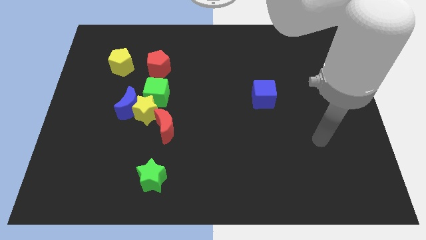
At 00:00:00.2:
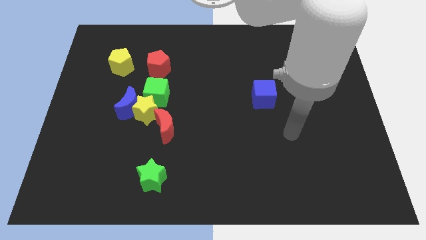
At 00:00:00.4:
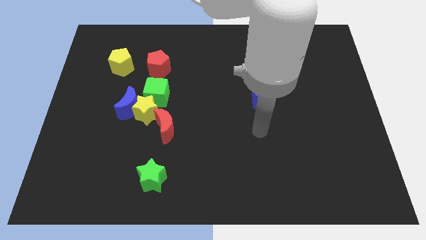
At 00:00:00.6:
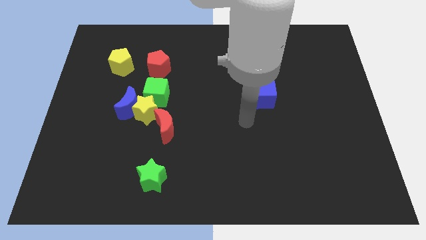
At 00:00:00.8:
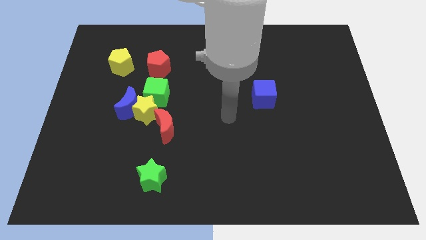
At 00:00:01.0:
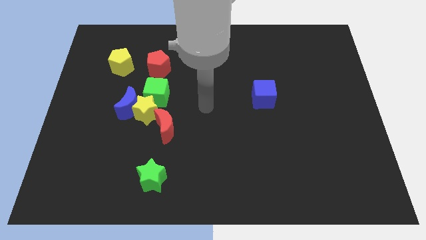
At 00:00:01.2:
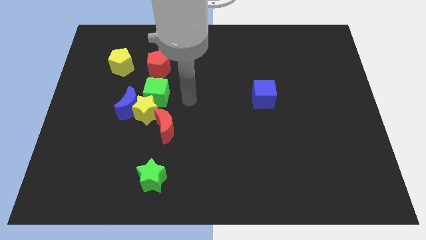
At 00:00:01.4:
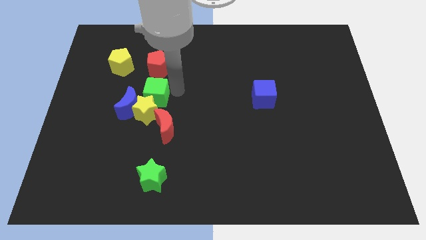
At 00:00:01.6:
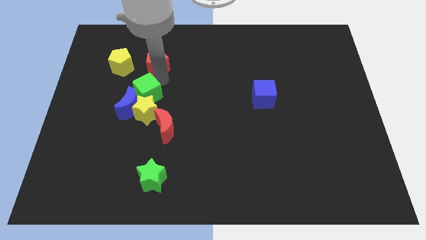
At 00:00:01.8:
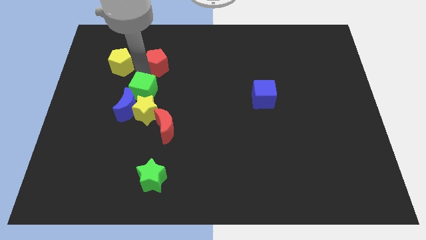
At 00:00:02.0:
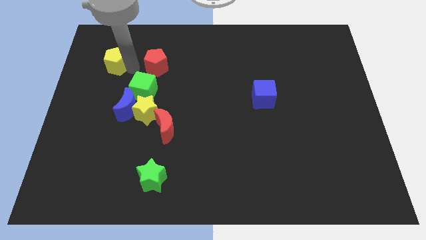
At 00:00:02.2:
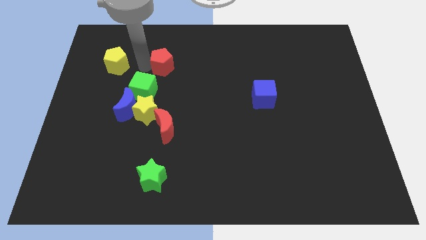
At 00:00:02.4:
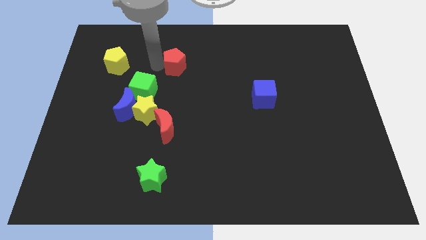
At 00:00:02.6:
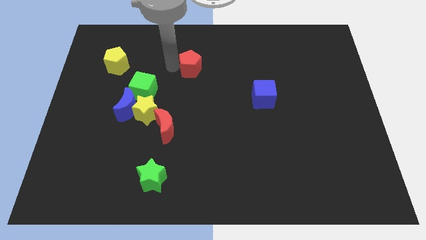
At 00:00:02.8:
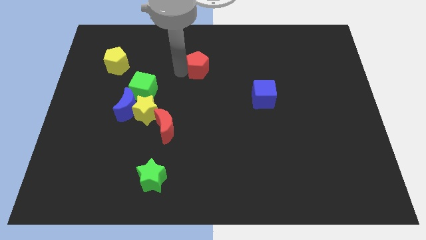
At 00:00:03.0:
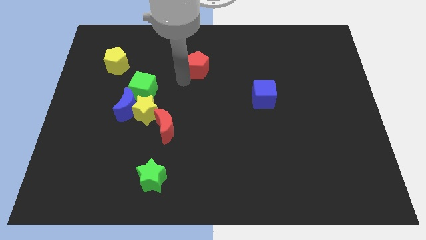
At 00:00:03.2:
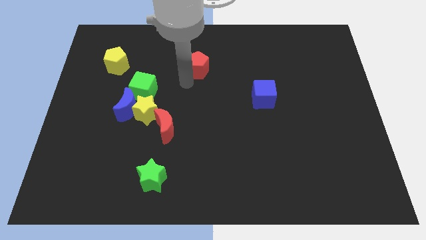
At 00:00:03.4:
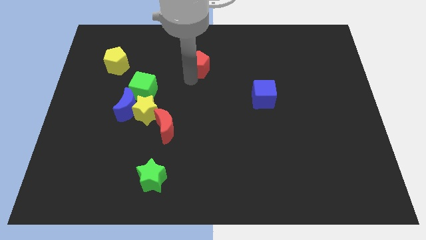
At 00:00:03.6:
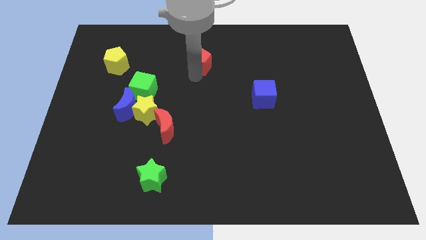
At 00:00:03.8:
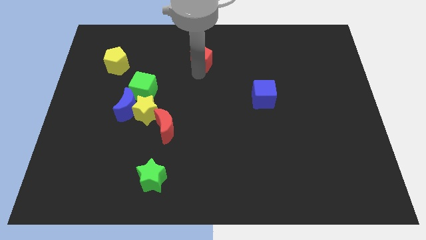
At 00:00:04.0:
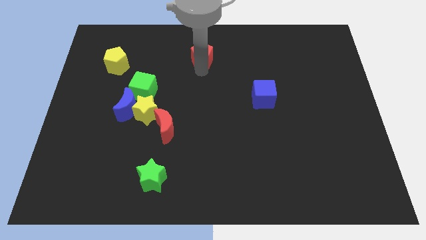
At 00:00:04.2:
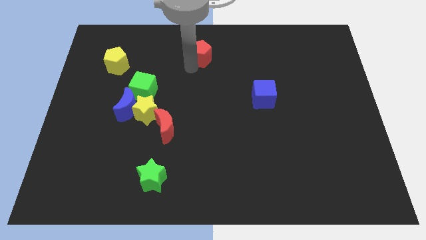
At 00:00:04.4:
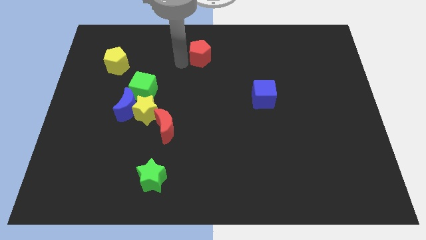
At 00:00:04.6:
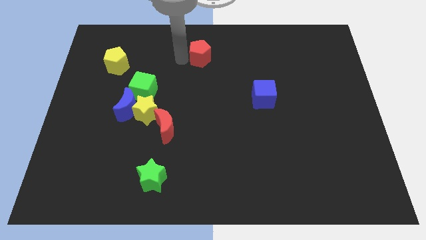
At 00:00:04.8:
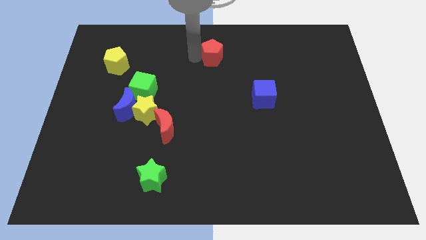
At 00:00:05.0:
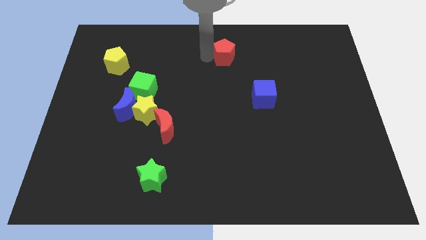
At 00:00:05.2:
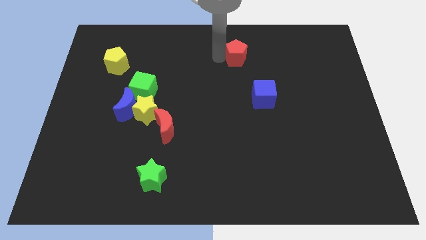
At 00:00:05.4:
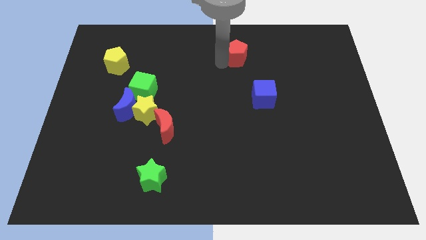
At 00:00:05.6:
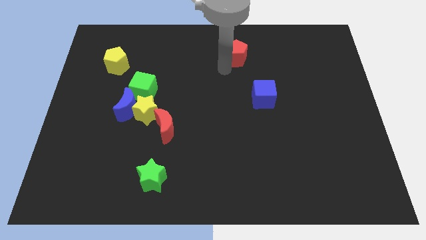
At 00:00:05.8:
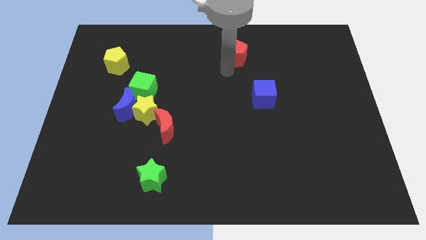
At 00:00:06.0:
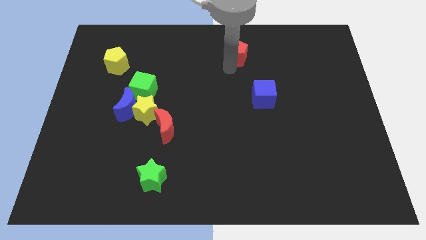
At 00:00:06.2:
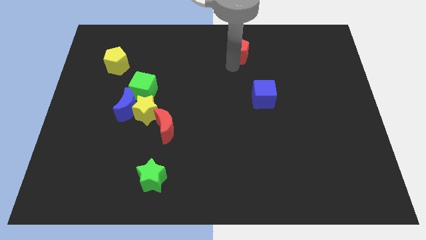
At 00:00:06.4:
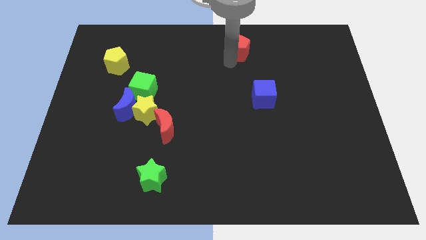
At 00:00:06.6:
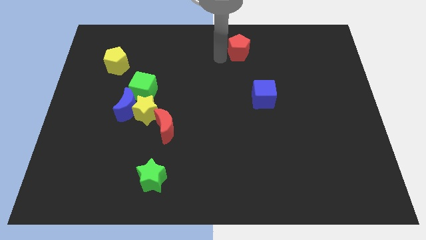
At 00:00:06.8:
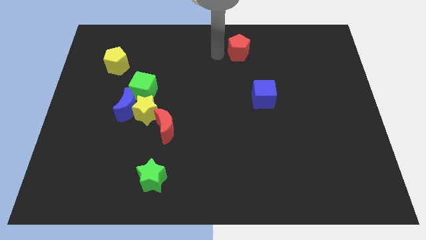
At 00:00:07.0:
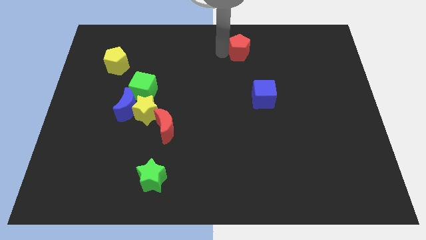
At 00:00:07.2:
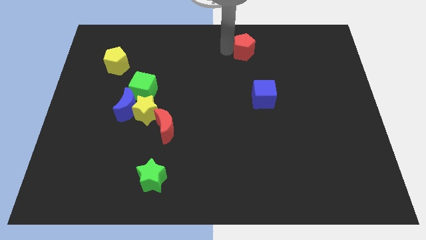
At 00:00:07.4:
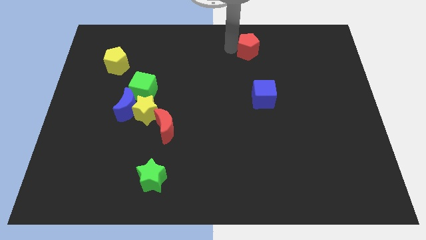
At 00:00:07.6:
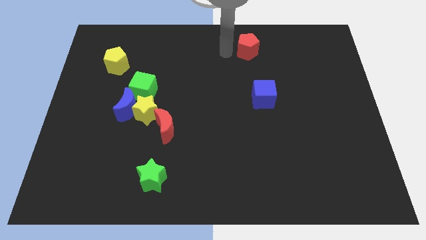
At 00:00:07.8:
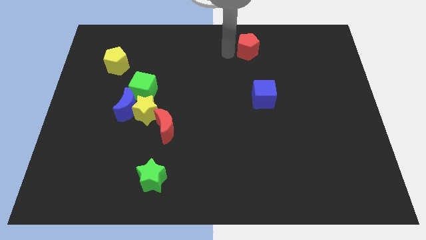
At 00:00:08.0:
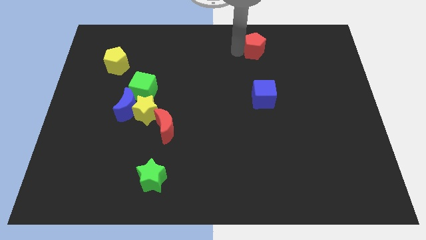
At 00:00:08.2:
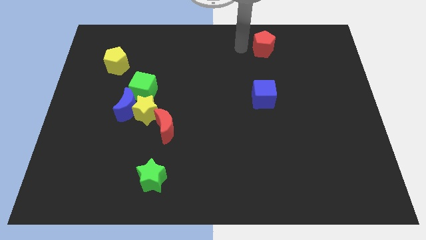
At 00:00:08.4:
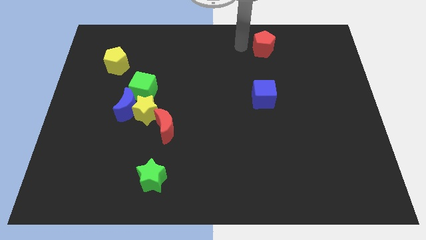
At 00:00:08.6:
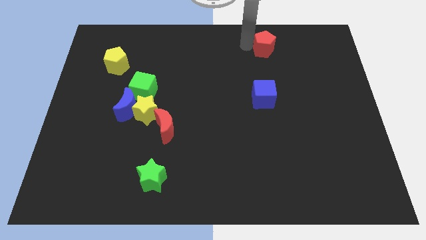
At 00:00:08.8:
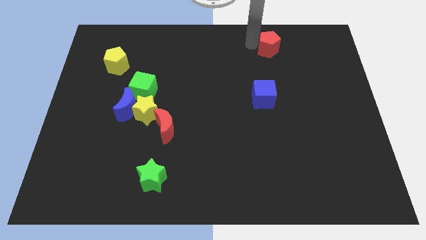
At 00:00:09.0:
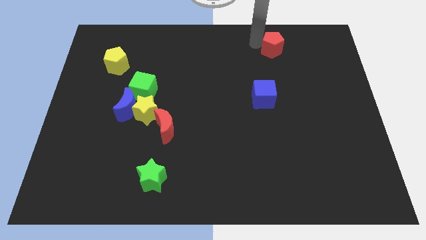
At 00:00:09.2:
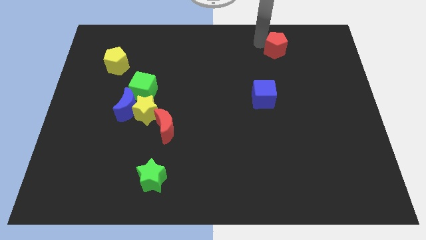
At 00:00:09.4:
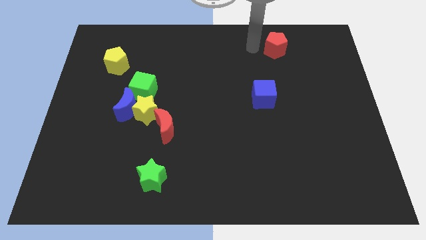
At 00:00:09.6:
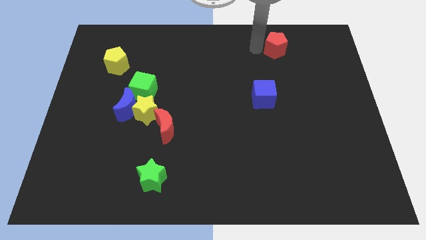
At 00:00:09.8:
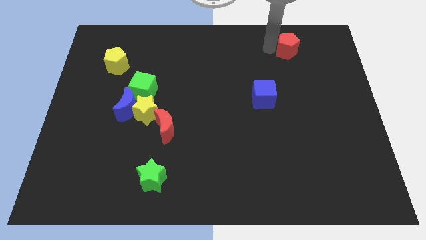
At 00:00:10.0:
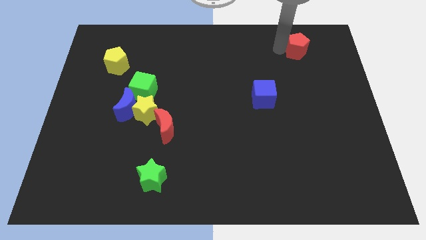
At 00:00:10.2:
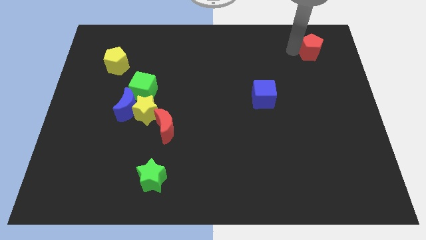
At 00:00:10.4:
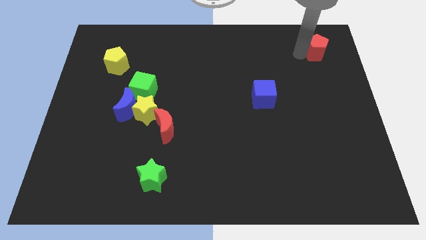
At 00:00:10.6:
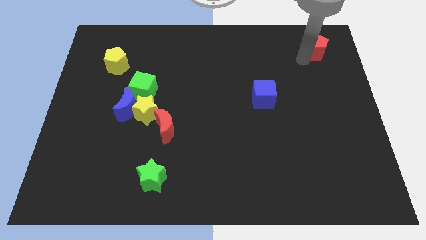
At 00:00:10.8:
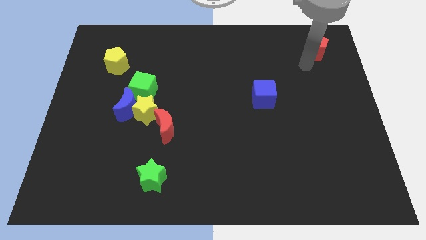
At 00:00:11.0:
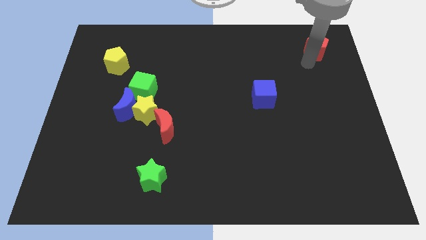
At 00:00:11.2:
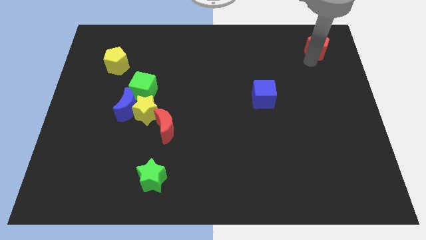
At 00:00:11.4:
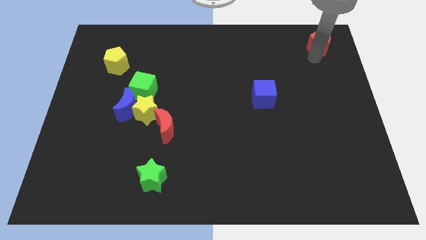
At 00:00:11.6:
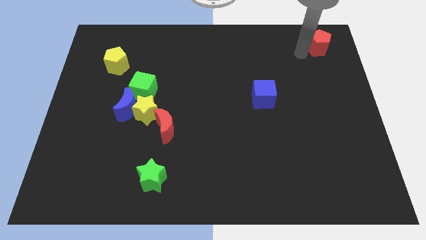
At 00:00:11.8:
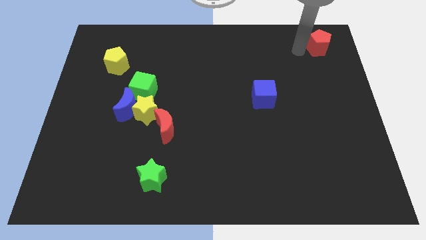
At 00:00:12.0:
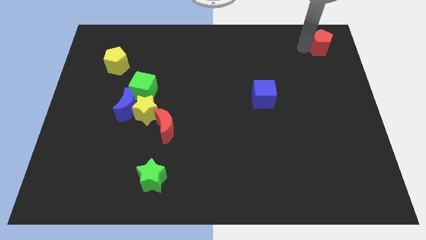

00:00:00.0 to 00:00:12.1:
slide the red pentagon to the top right of the board
